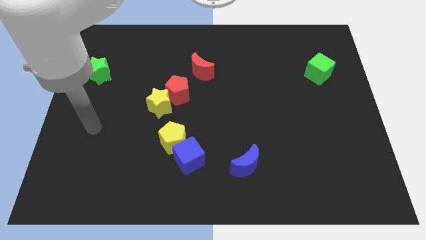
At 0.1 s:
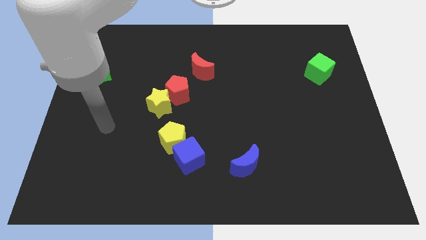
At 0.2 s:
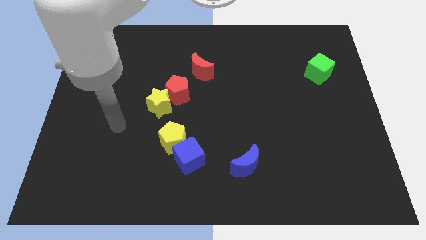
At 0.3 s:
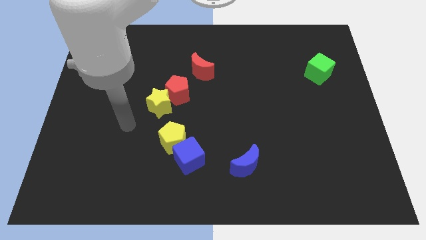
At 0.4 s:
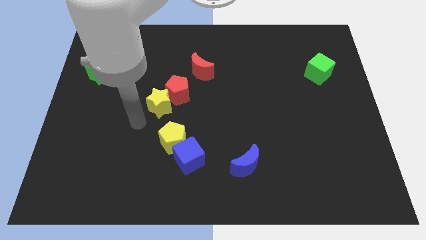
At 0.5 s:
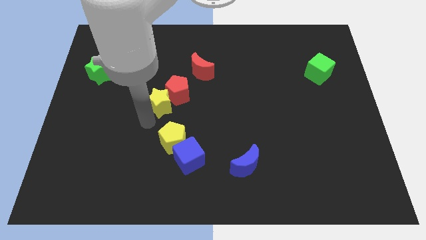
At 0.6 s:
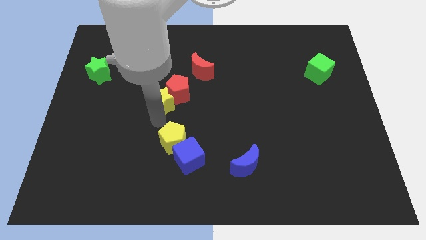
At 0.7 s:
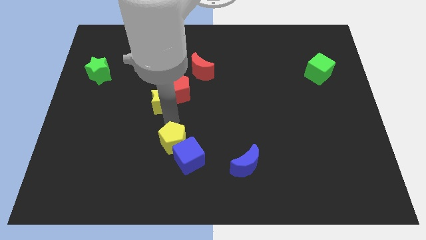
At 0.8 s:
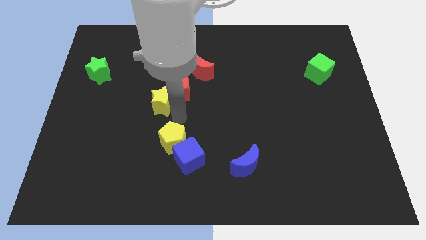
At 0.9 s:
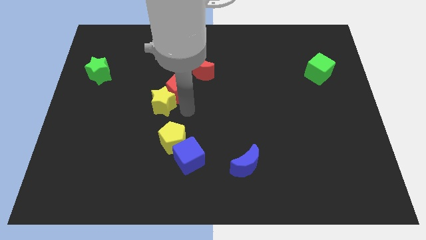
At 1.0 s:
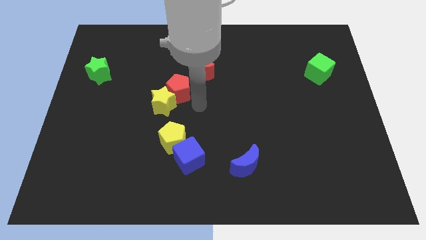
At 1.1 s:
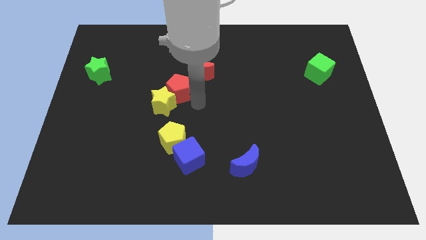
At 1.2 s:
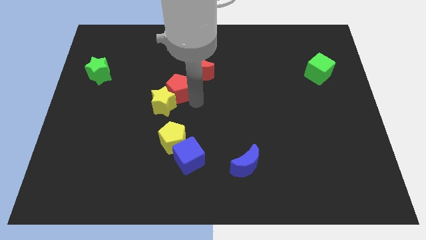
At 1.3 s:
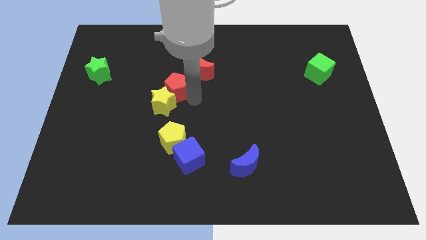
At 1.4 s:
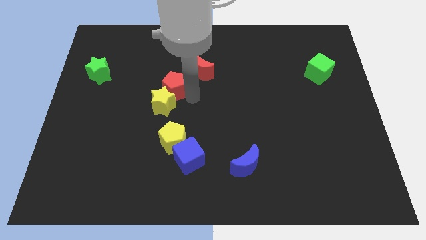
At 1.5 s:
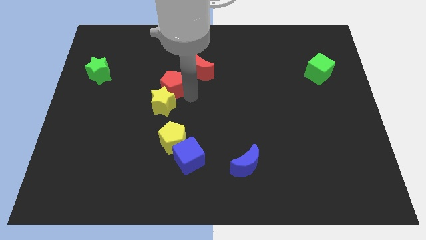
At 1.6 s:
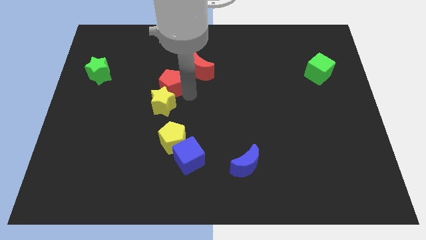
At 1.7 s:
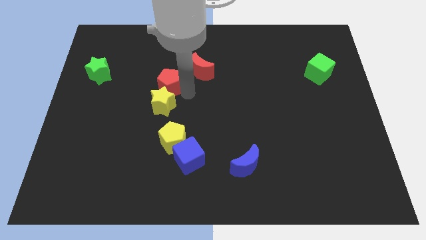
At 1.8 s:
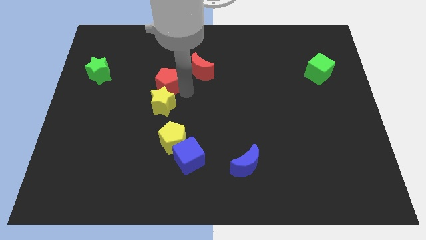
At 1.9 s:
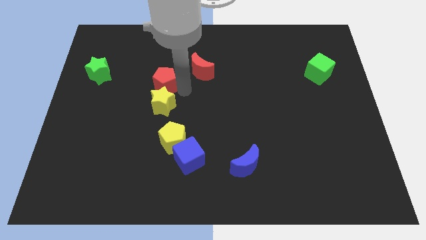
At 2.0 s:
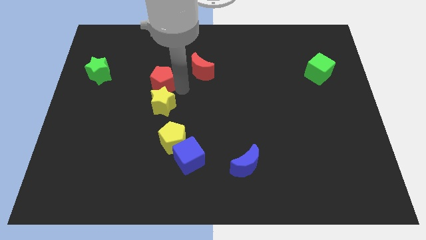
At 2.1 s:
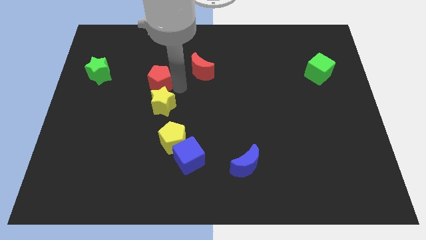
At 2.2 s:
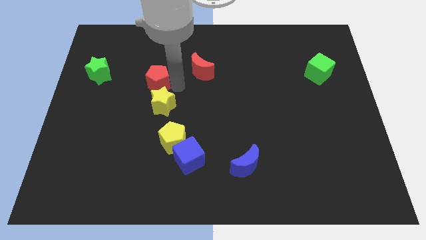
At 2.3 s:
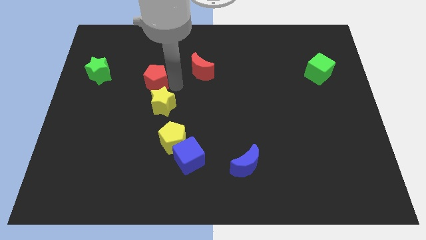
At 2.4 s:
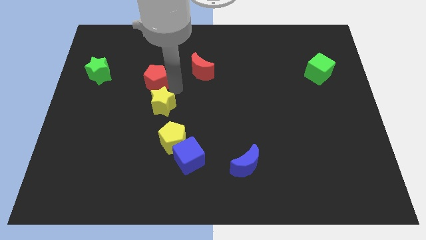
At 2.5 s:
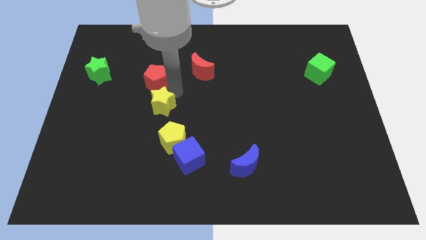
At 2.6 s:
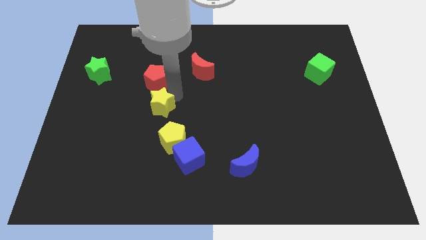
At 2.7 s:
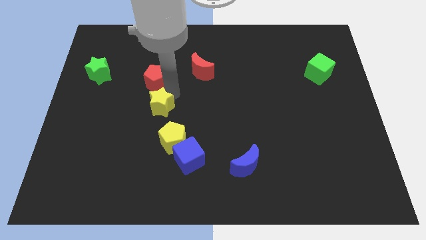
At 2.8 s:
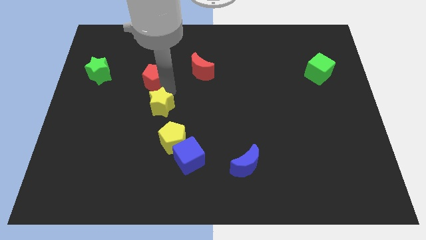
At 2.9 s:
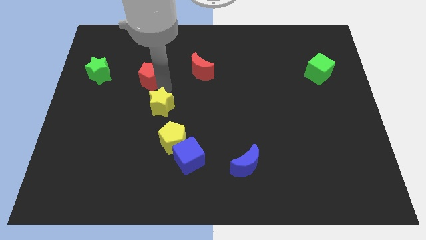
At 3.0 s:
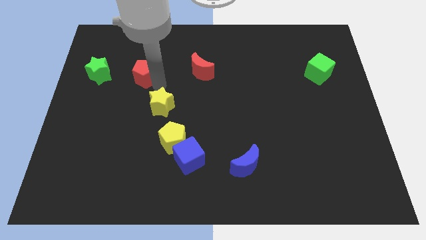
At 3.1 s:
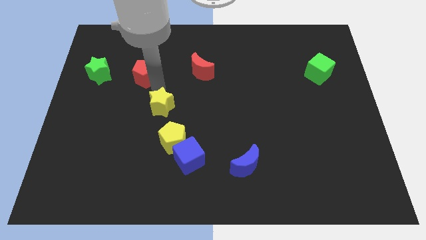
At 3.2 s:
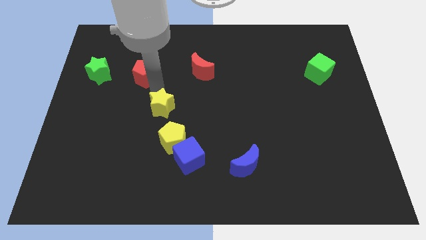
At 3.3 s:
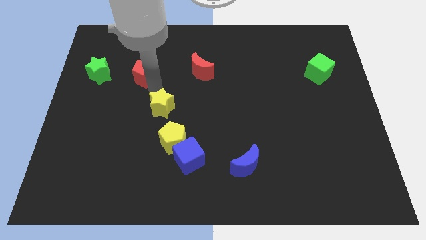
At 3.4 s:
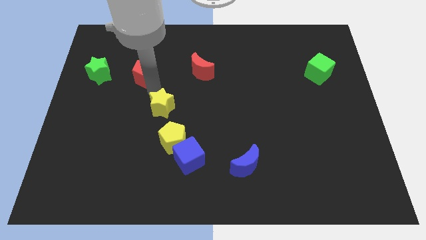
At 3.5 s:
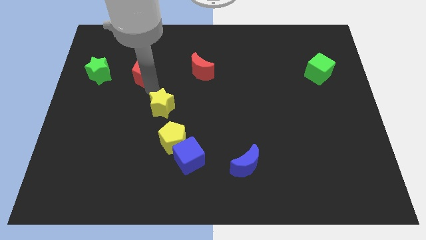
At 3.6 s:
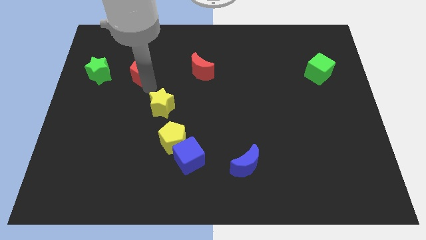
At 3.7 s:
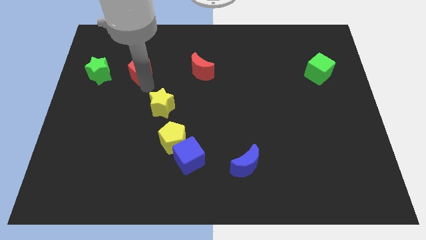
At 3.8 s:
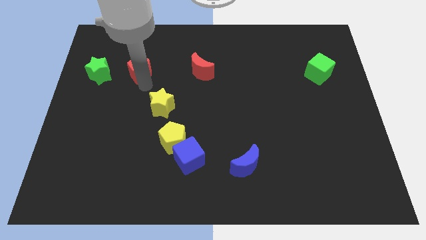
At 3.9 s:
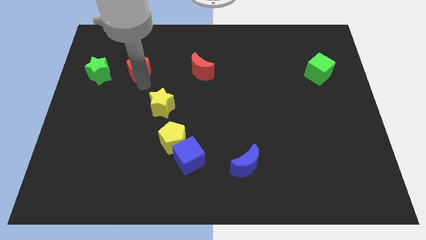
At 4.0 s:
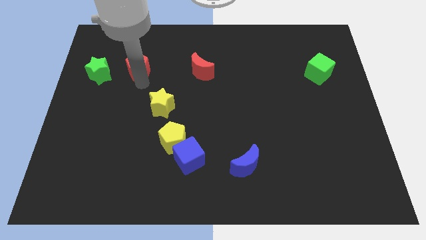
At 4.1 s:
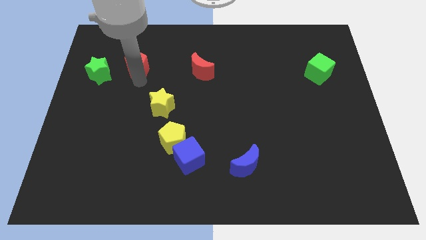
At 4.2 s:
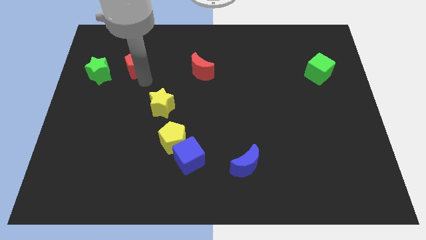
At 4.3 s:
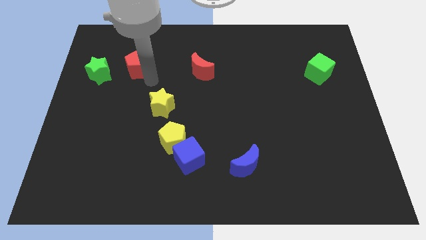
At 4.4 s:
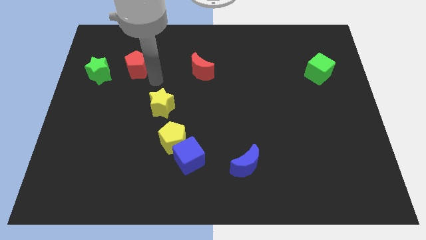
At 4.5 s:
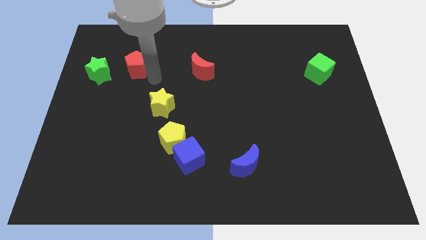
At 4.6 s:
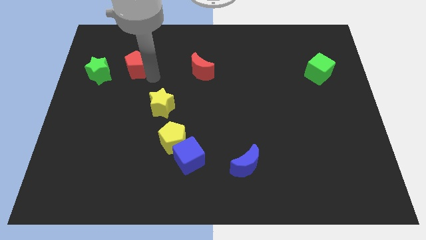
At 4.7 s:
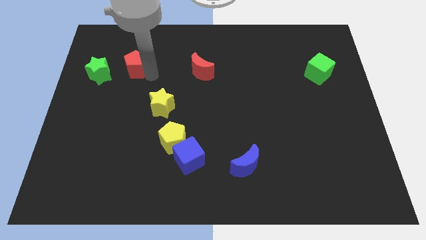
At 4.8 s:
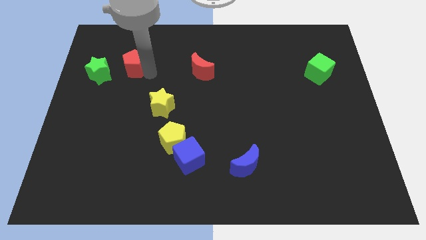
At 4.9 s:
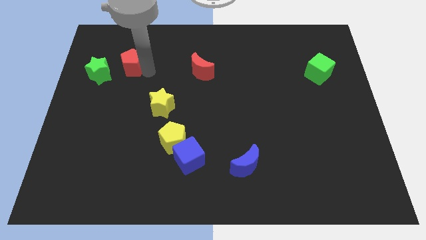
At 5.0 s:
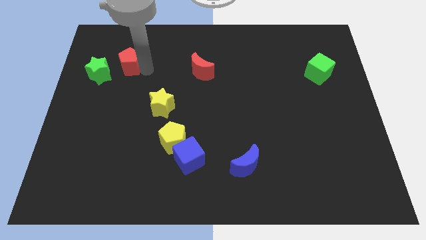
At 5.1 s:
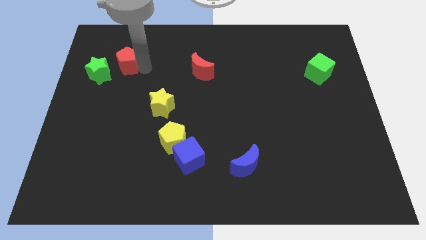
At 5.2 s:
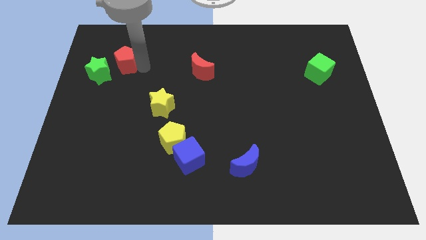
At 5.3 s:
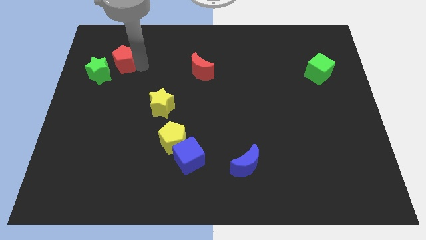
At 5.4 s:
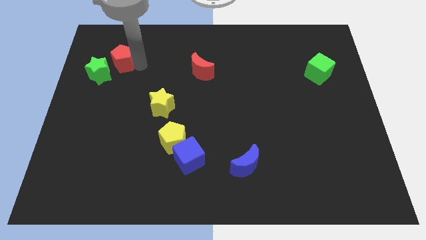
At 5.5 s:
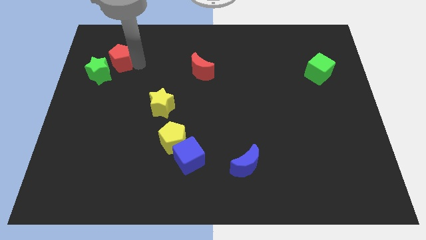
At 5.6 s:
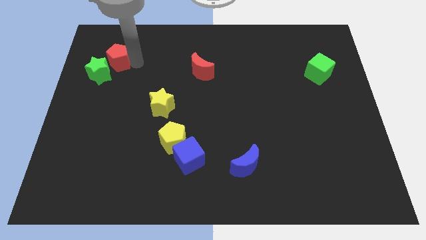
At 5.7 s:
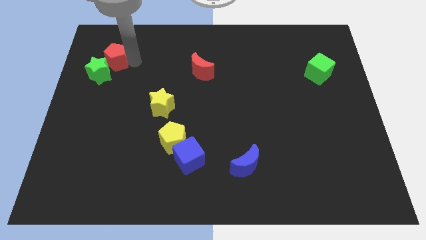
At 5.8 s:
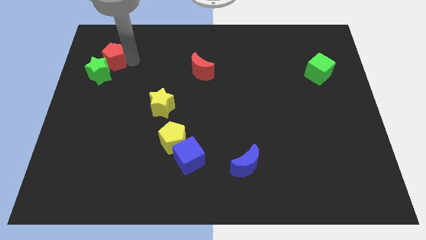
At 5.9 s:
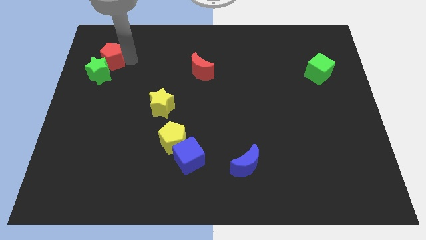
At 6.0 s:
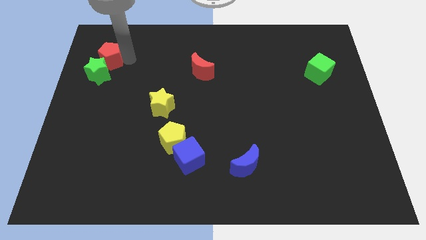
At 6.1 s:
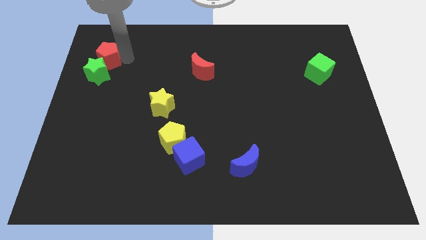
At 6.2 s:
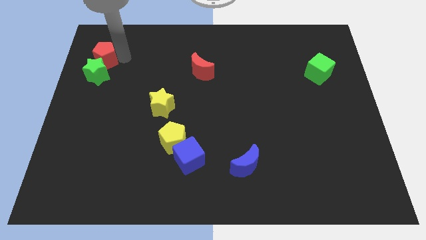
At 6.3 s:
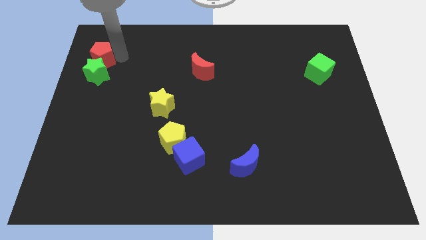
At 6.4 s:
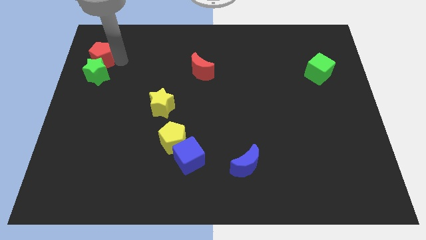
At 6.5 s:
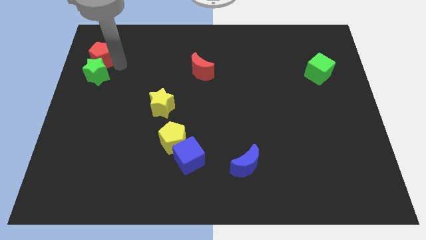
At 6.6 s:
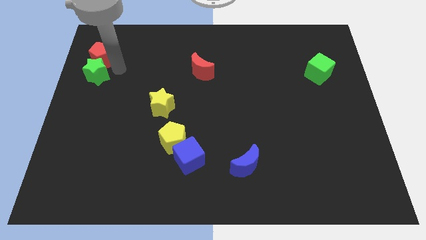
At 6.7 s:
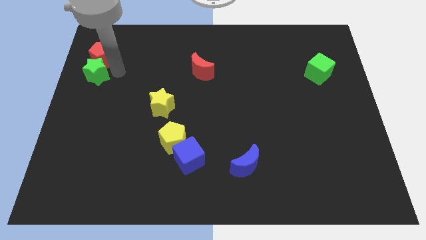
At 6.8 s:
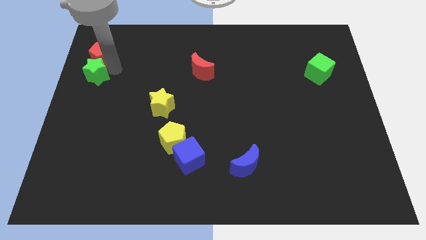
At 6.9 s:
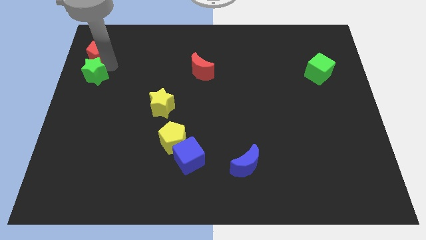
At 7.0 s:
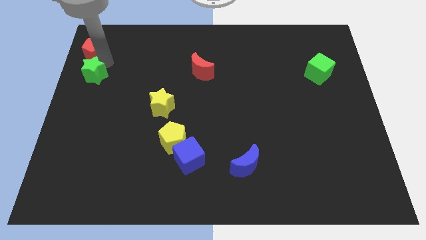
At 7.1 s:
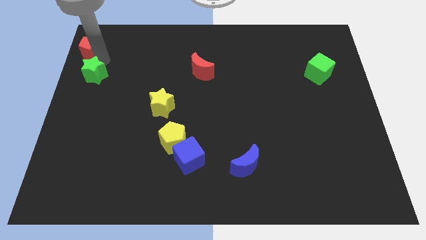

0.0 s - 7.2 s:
move the red pentagon to the top left corner

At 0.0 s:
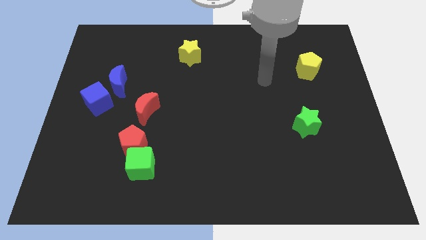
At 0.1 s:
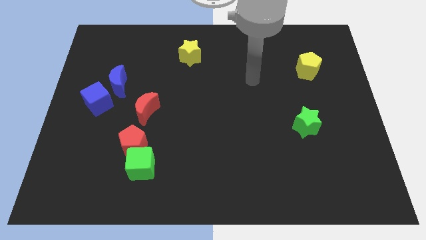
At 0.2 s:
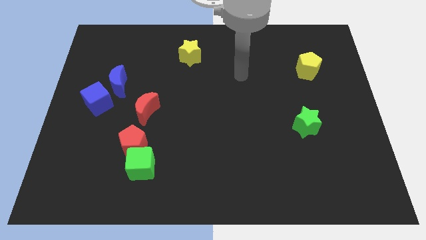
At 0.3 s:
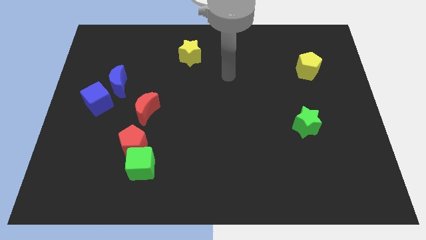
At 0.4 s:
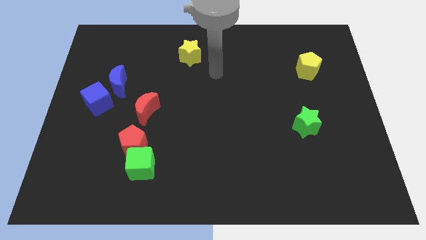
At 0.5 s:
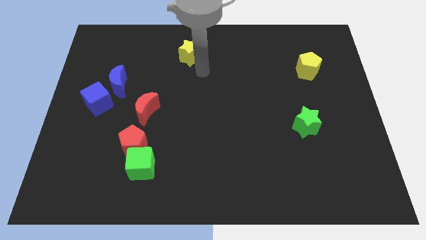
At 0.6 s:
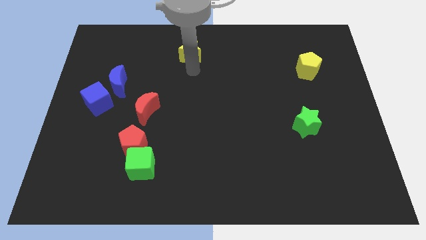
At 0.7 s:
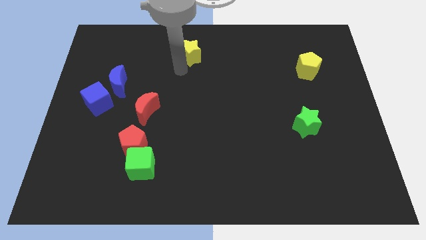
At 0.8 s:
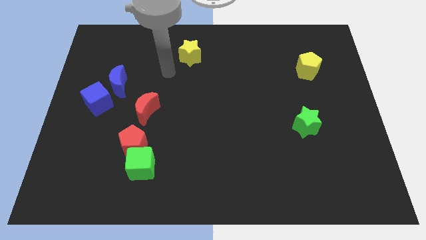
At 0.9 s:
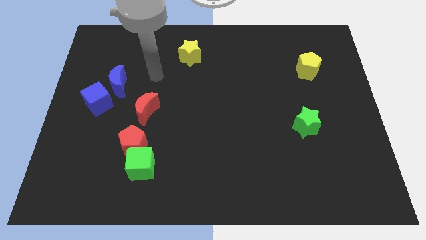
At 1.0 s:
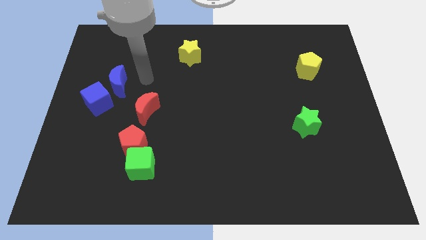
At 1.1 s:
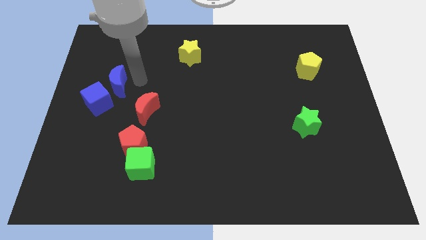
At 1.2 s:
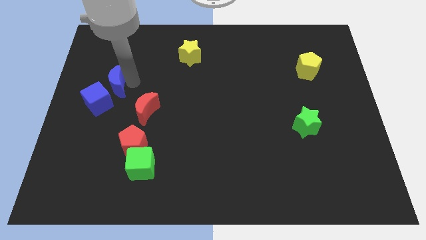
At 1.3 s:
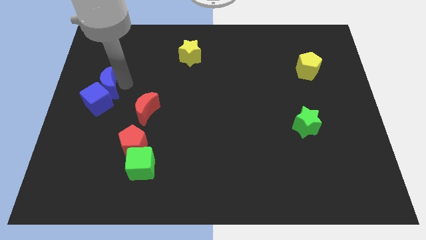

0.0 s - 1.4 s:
push the blue moon to the left side
